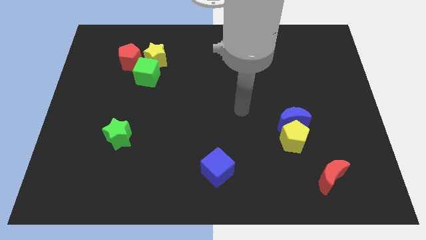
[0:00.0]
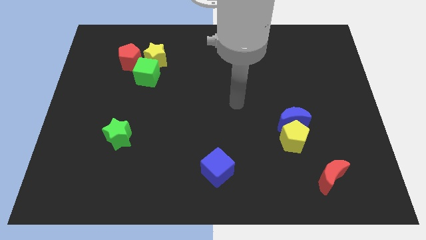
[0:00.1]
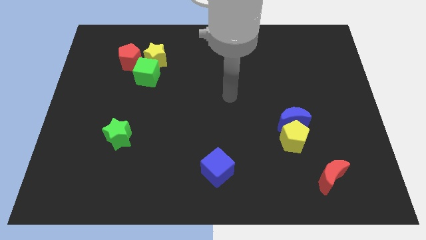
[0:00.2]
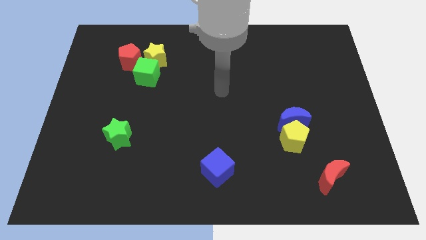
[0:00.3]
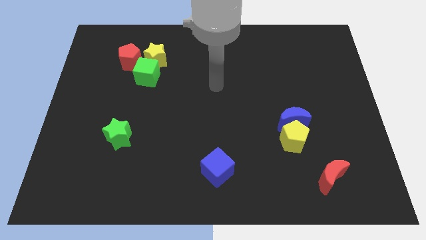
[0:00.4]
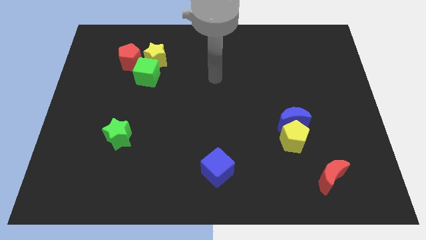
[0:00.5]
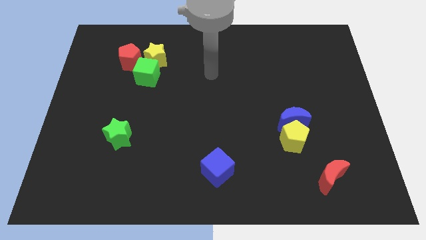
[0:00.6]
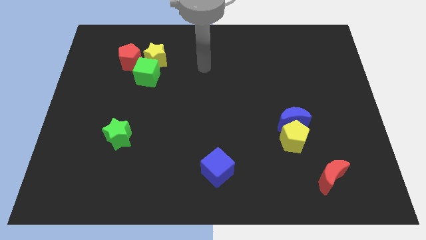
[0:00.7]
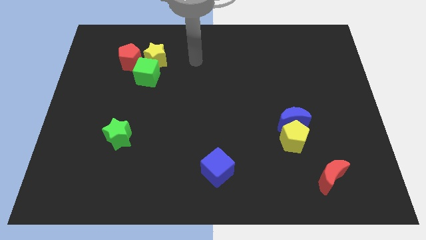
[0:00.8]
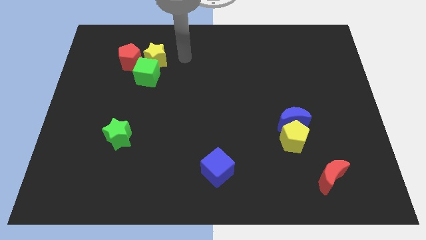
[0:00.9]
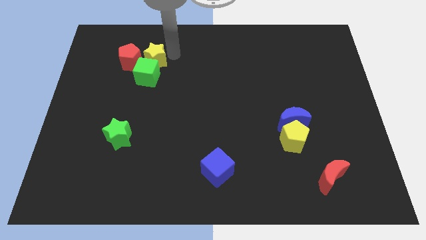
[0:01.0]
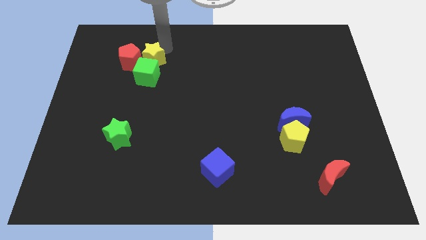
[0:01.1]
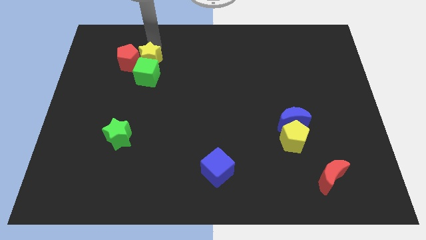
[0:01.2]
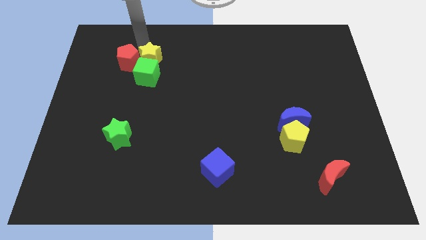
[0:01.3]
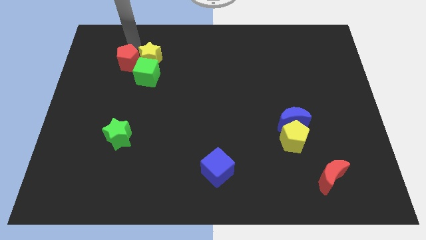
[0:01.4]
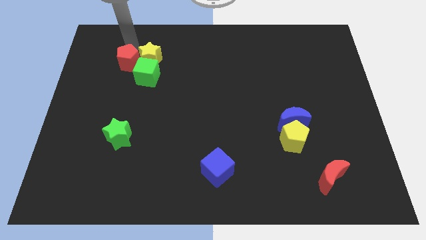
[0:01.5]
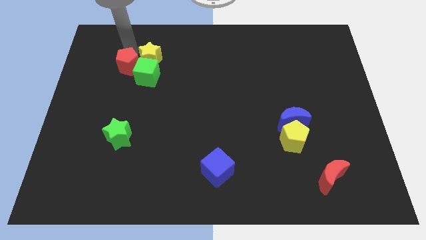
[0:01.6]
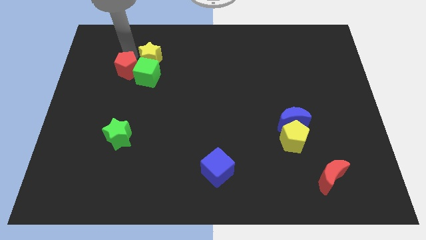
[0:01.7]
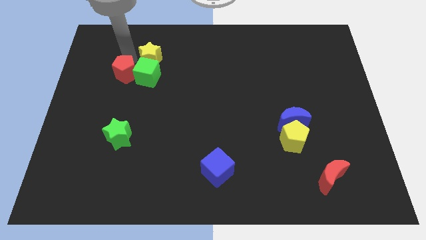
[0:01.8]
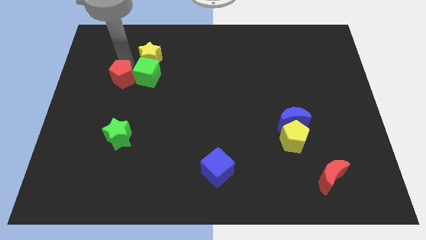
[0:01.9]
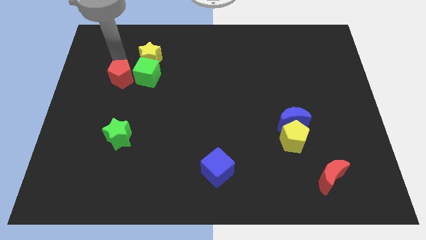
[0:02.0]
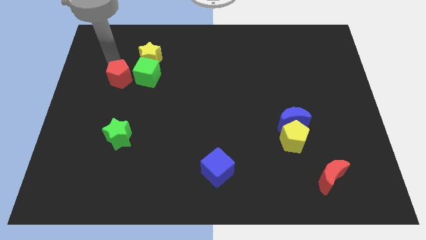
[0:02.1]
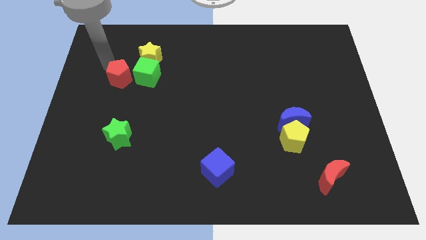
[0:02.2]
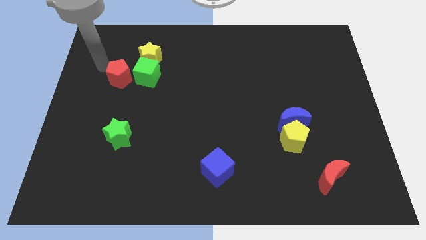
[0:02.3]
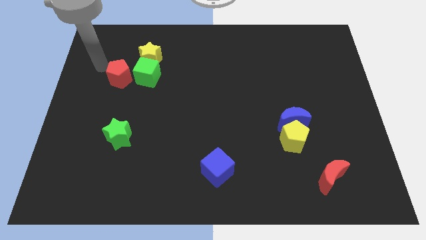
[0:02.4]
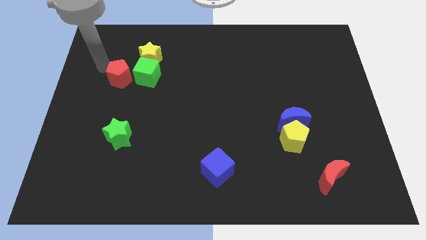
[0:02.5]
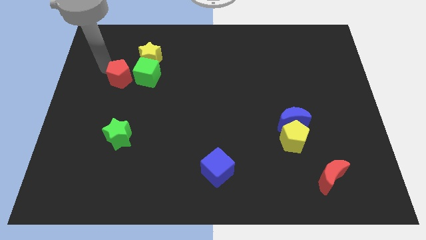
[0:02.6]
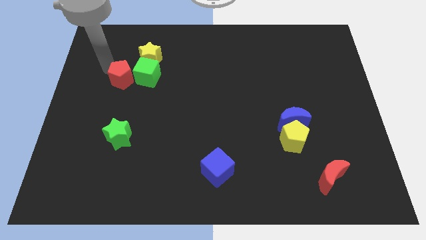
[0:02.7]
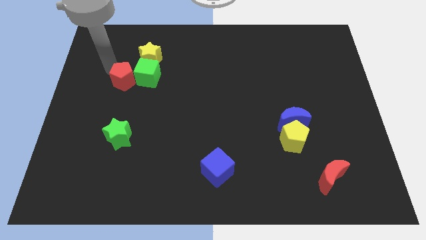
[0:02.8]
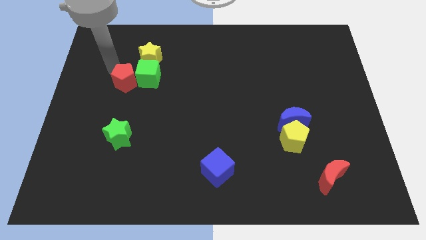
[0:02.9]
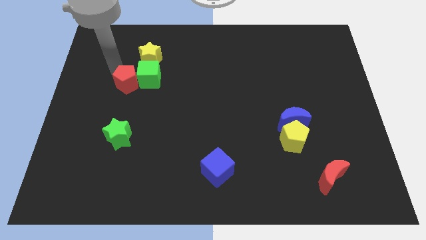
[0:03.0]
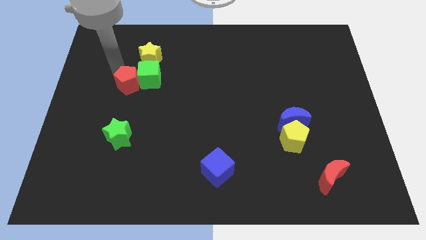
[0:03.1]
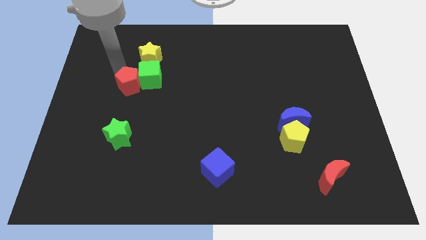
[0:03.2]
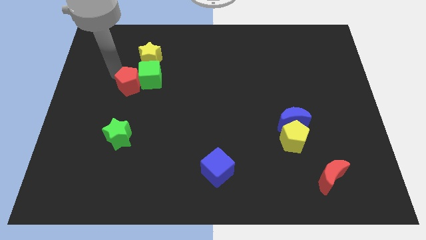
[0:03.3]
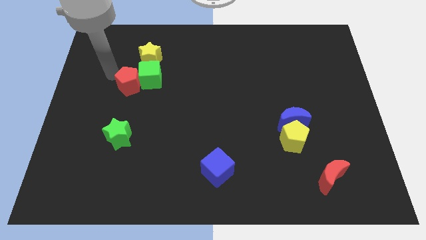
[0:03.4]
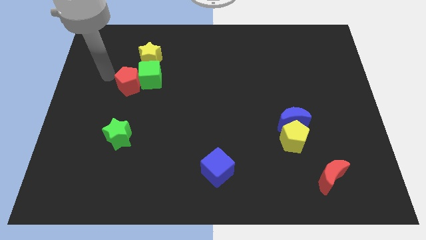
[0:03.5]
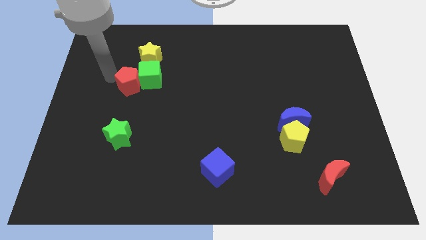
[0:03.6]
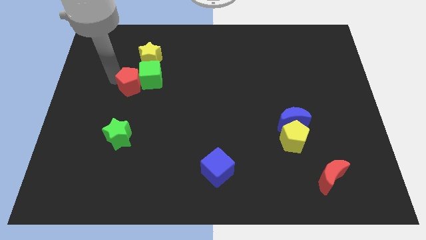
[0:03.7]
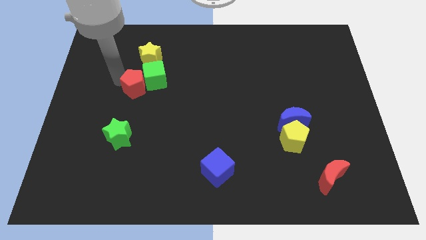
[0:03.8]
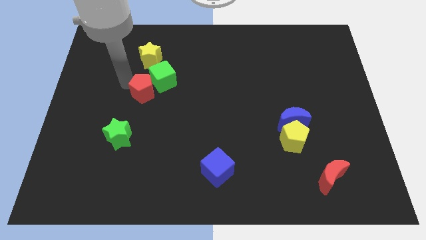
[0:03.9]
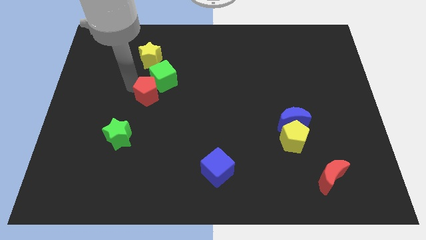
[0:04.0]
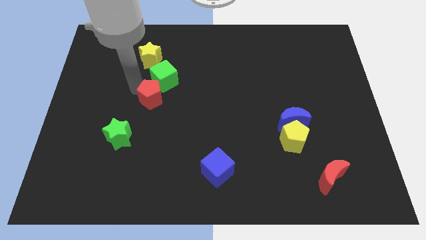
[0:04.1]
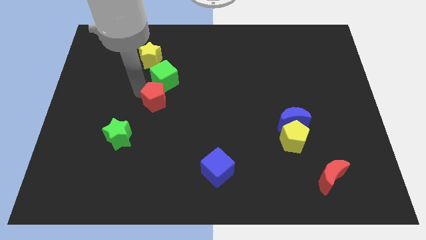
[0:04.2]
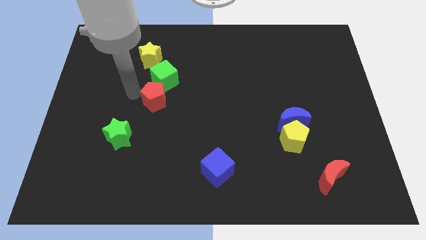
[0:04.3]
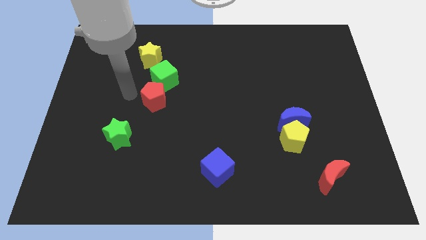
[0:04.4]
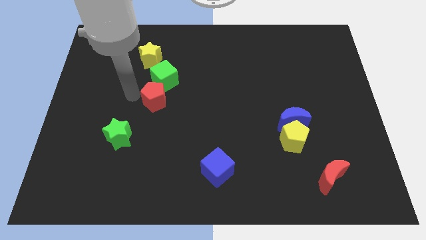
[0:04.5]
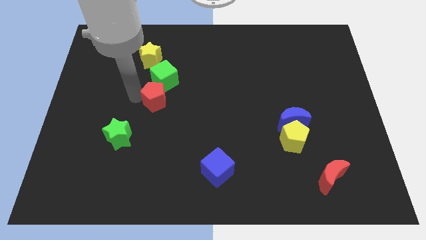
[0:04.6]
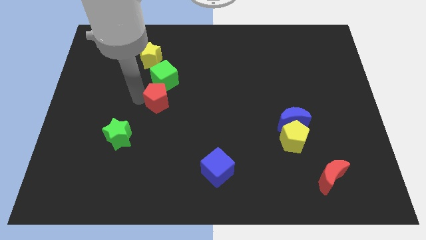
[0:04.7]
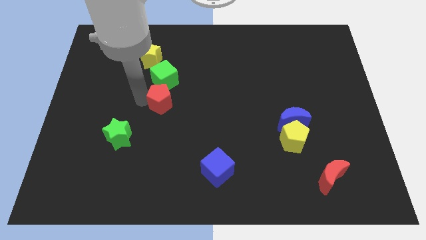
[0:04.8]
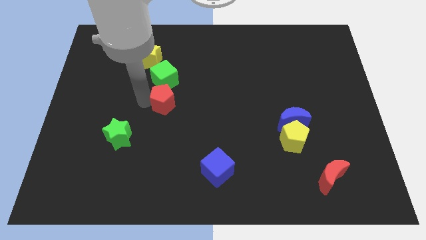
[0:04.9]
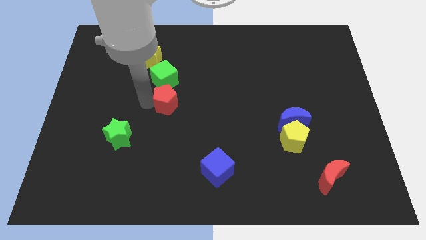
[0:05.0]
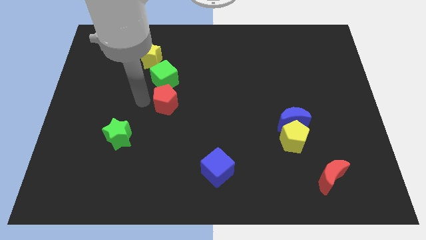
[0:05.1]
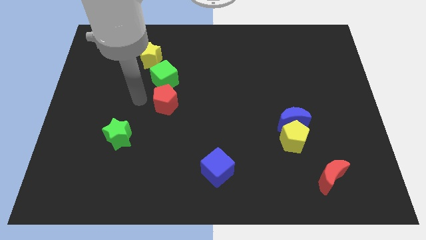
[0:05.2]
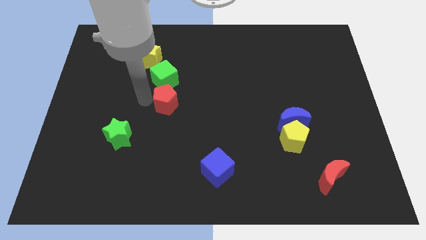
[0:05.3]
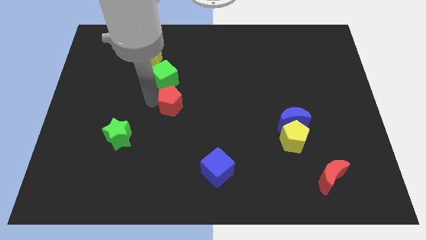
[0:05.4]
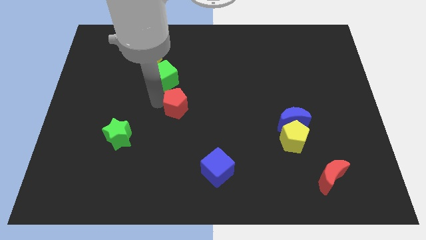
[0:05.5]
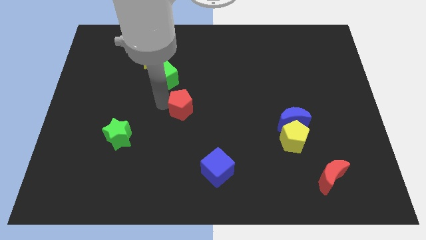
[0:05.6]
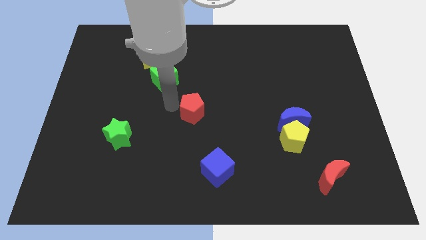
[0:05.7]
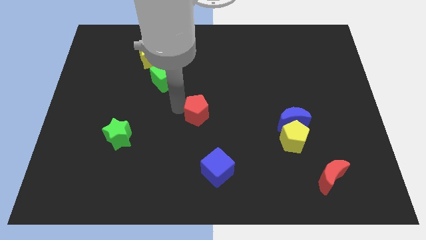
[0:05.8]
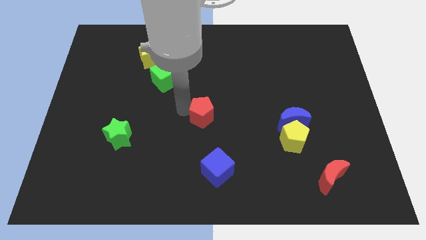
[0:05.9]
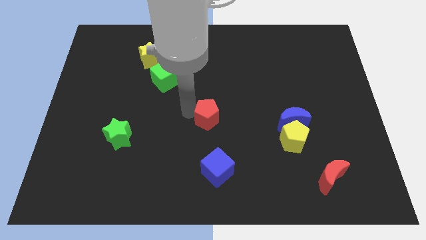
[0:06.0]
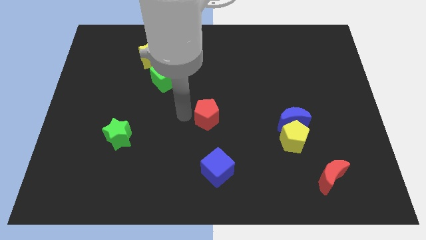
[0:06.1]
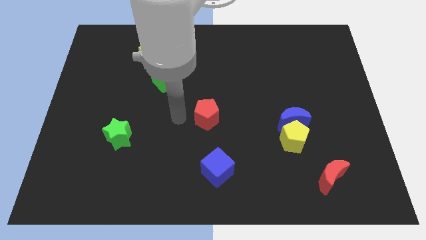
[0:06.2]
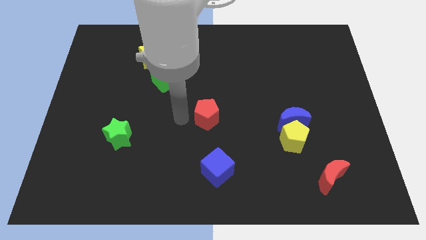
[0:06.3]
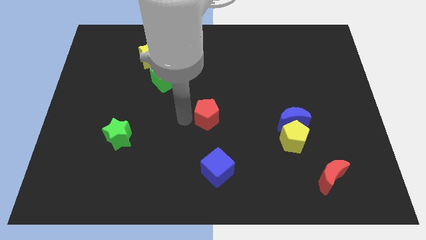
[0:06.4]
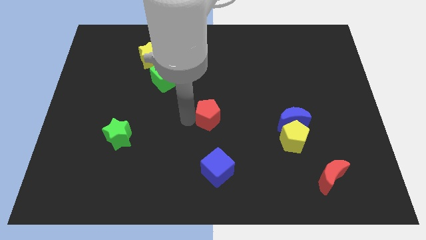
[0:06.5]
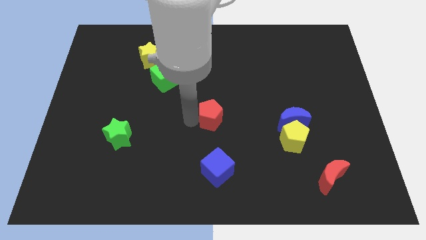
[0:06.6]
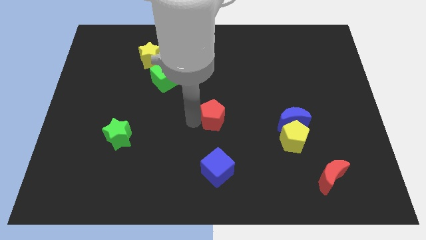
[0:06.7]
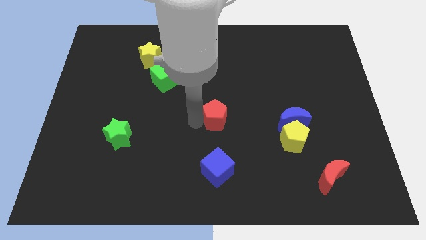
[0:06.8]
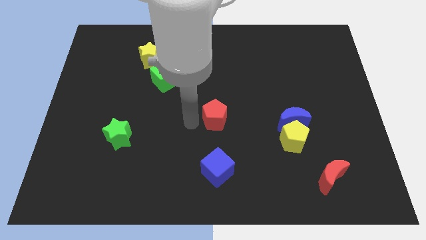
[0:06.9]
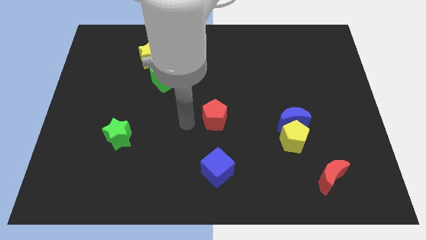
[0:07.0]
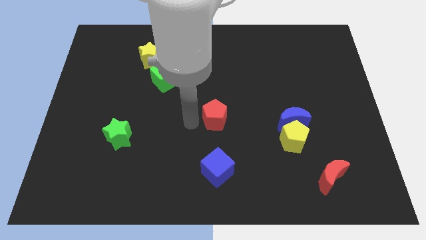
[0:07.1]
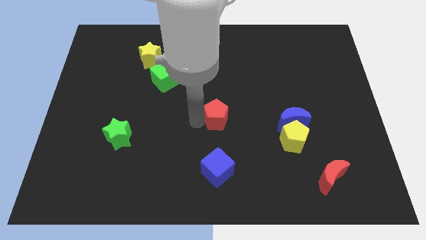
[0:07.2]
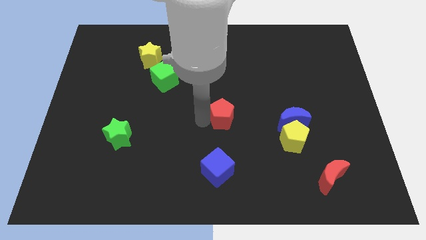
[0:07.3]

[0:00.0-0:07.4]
move the red pentagon left of the blue moon
